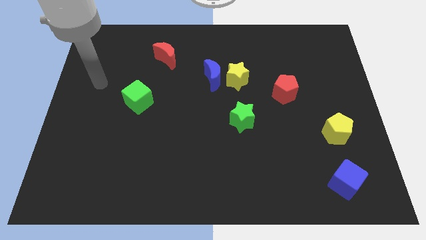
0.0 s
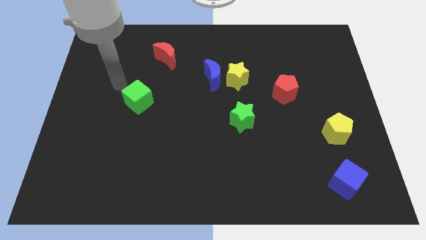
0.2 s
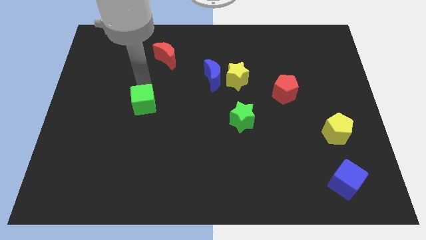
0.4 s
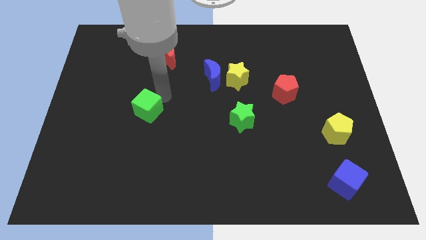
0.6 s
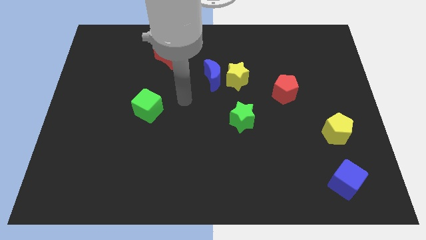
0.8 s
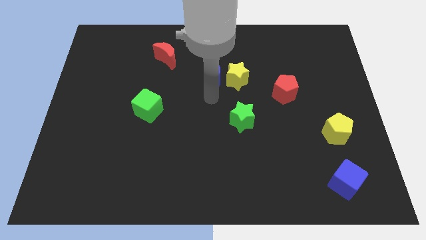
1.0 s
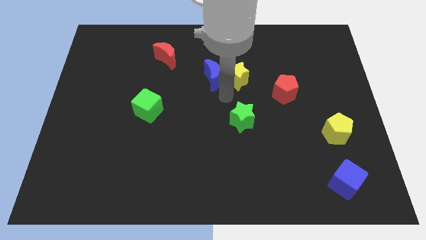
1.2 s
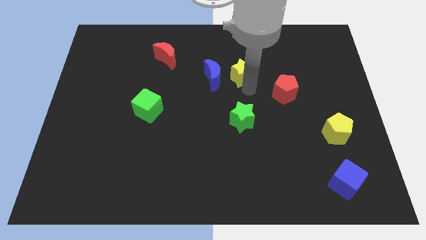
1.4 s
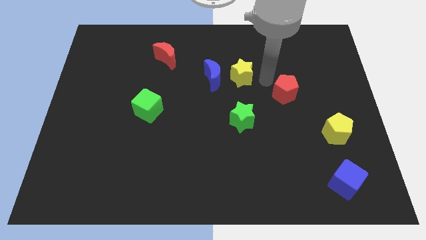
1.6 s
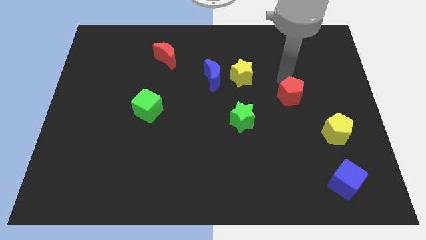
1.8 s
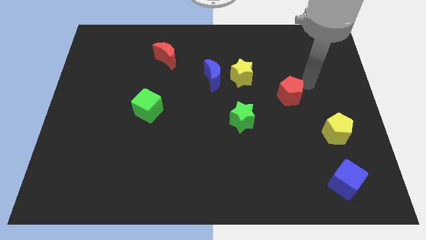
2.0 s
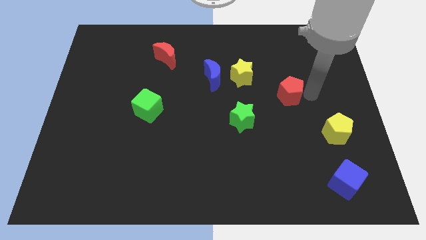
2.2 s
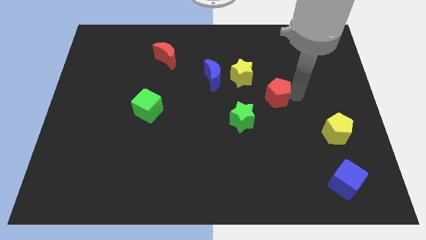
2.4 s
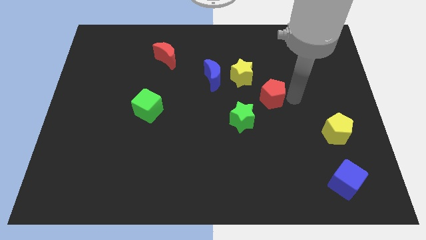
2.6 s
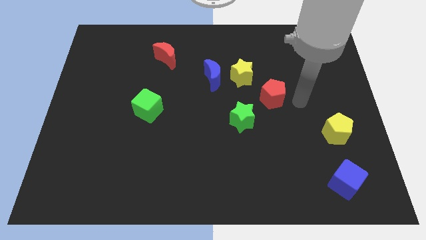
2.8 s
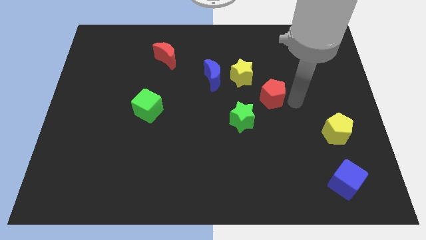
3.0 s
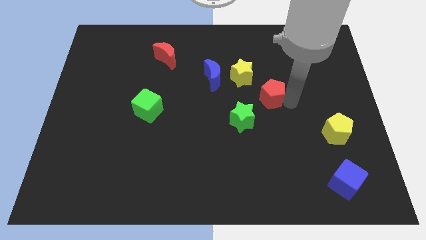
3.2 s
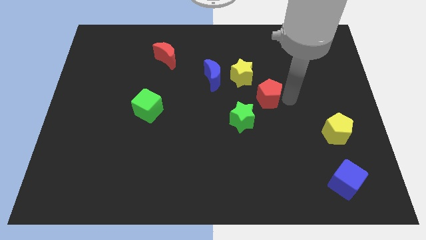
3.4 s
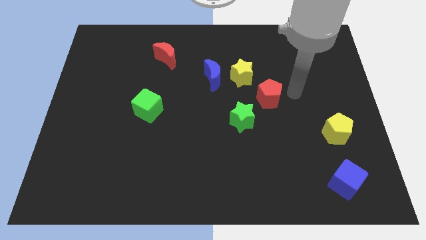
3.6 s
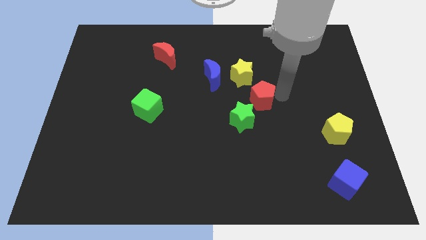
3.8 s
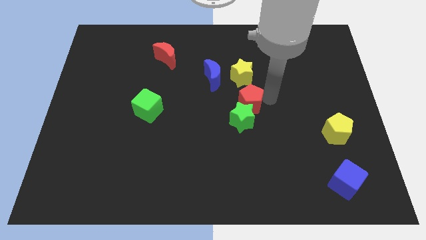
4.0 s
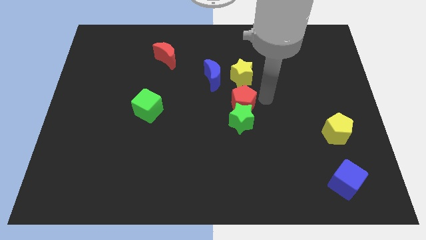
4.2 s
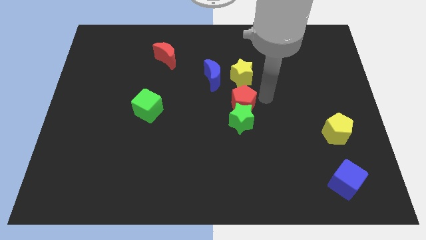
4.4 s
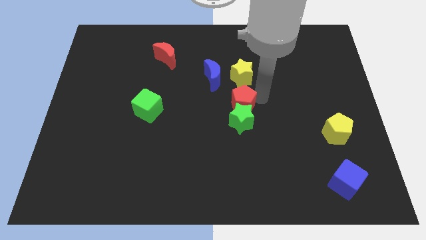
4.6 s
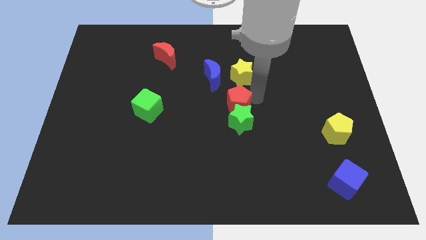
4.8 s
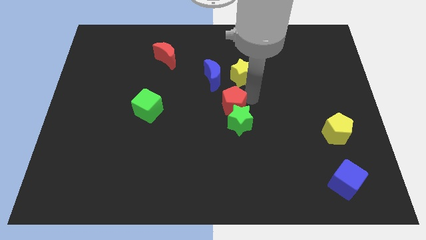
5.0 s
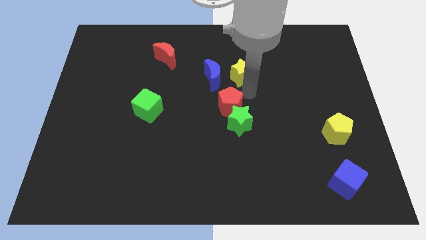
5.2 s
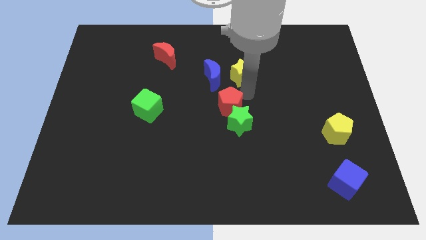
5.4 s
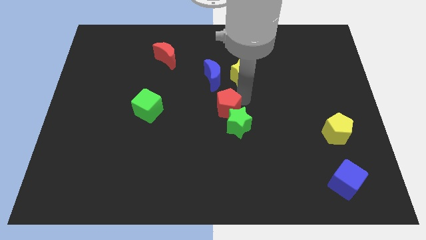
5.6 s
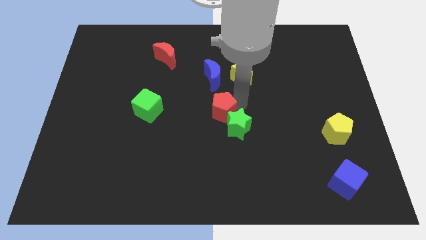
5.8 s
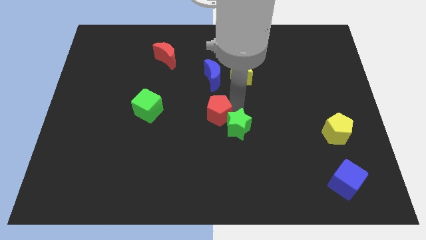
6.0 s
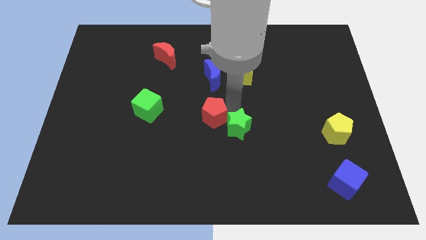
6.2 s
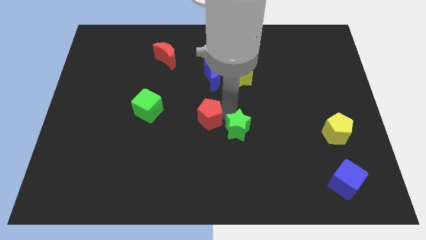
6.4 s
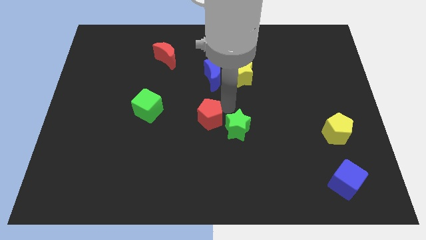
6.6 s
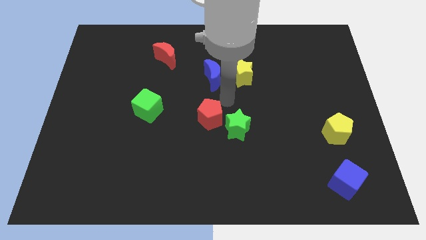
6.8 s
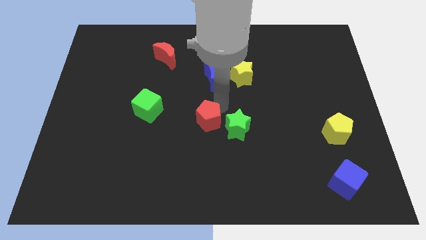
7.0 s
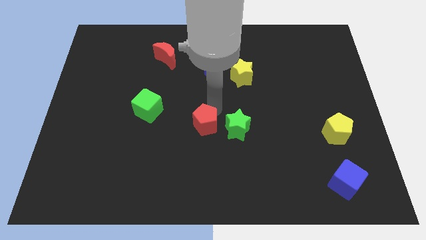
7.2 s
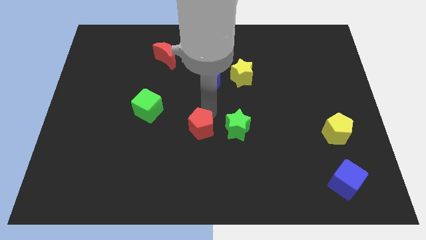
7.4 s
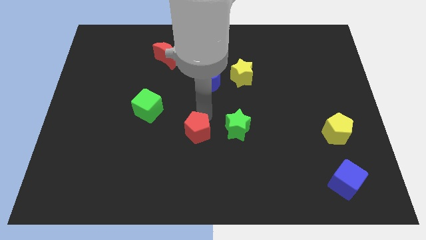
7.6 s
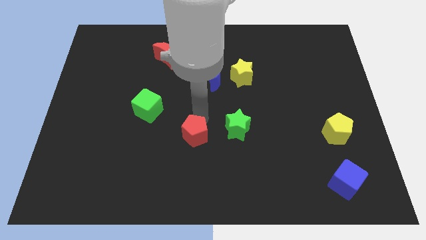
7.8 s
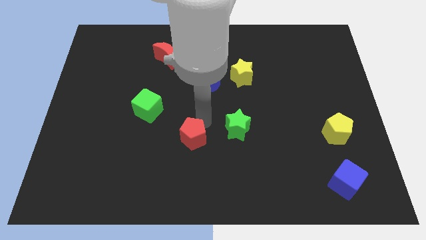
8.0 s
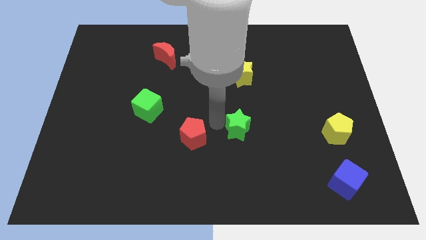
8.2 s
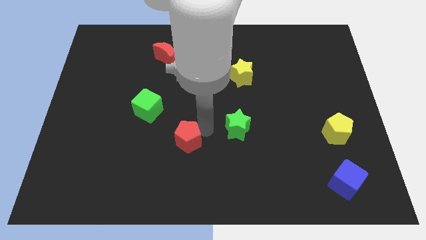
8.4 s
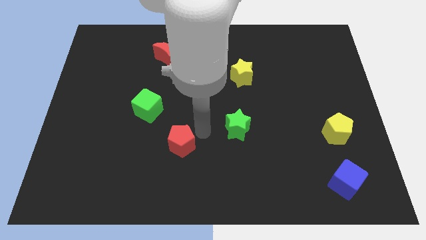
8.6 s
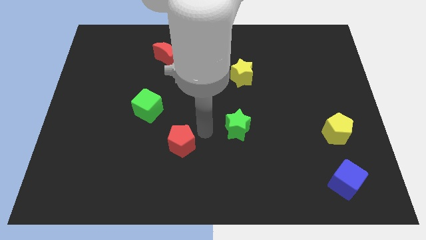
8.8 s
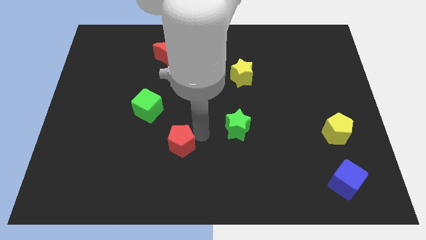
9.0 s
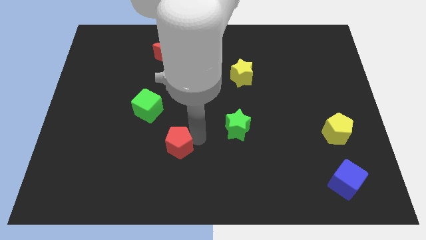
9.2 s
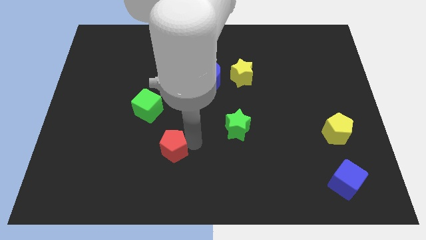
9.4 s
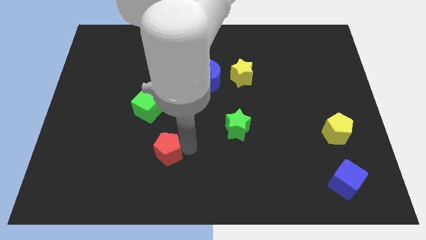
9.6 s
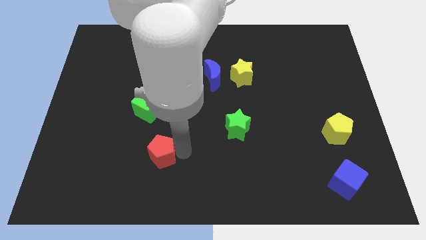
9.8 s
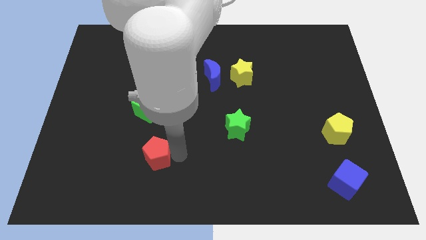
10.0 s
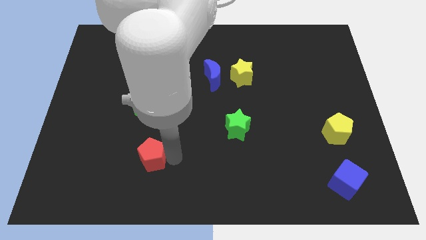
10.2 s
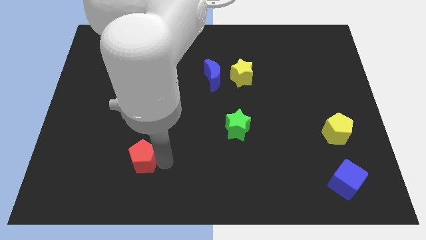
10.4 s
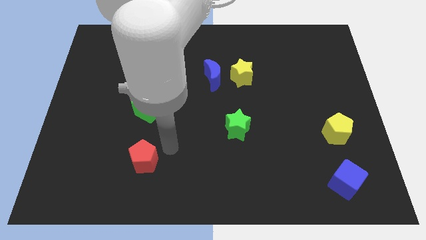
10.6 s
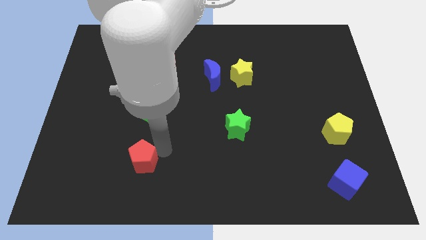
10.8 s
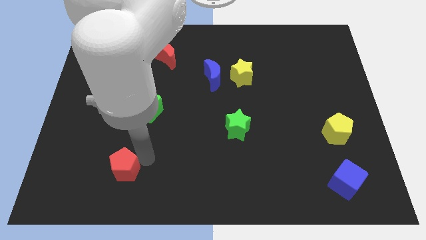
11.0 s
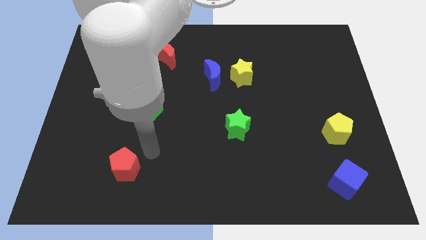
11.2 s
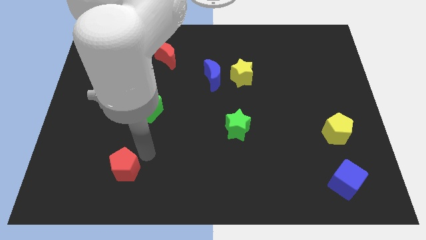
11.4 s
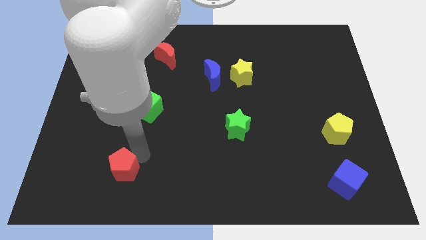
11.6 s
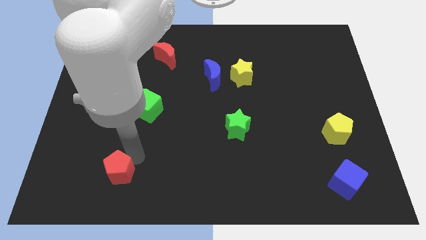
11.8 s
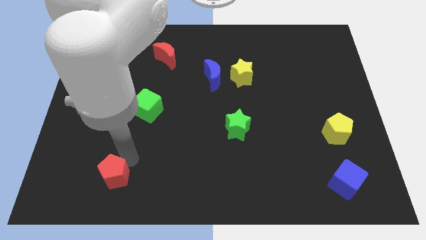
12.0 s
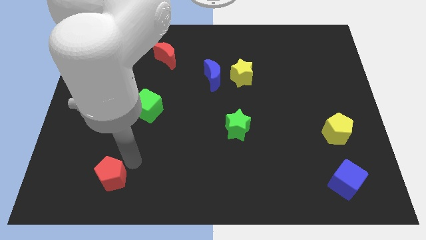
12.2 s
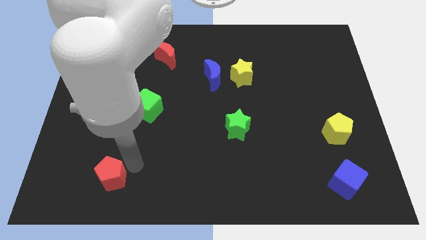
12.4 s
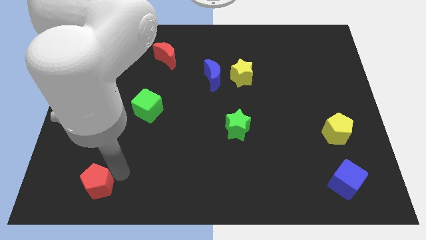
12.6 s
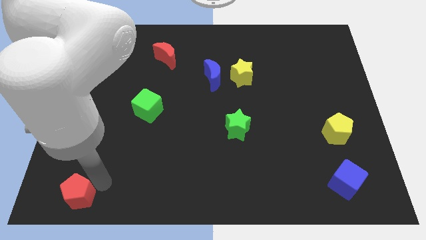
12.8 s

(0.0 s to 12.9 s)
put the red pentagon to the bottom left
